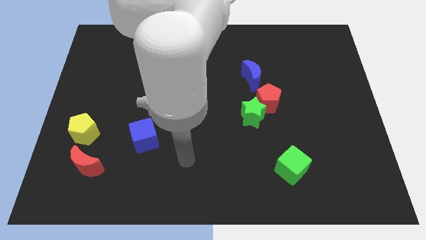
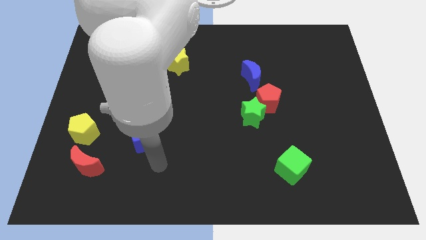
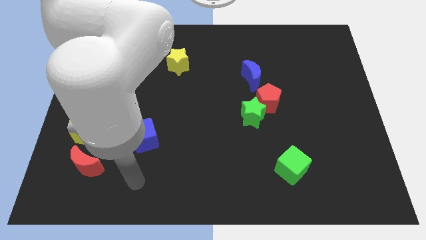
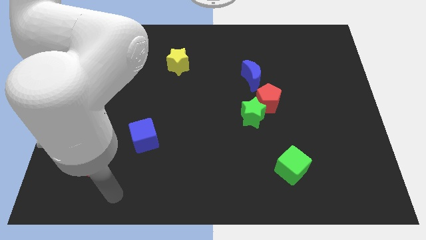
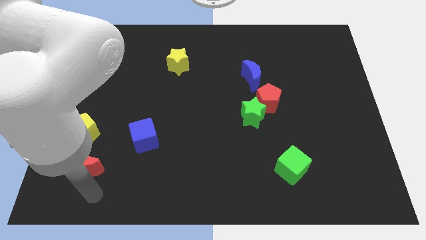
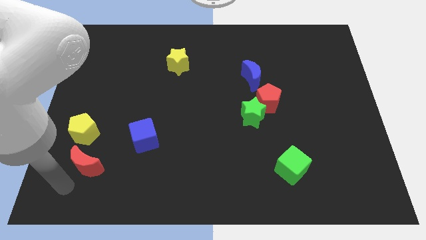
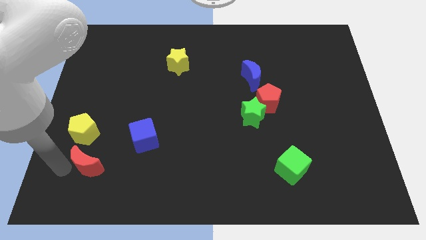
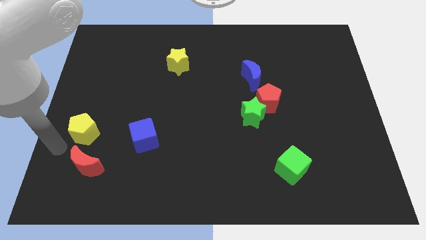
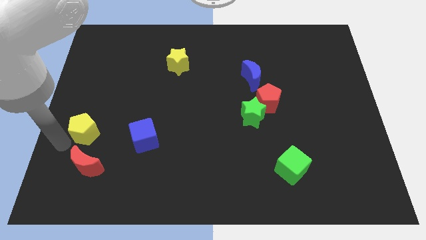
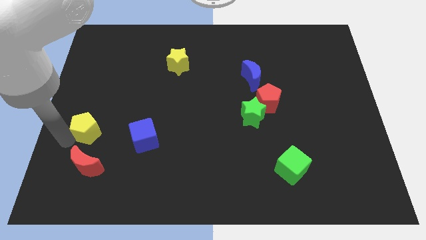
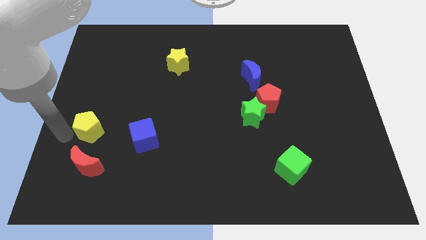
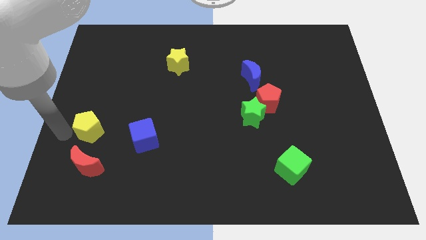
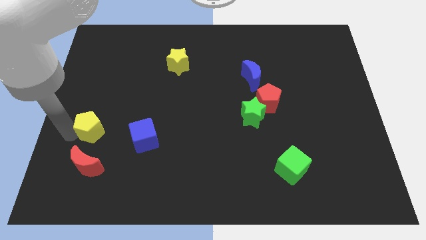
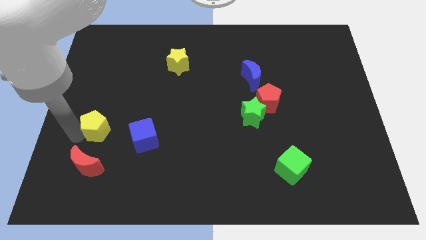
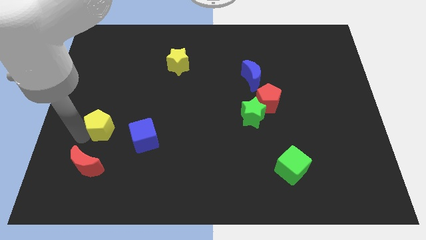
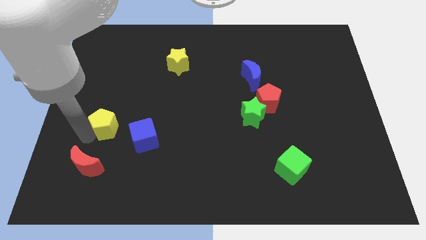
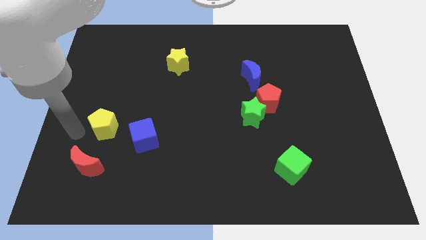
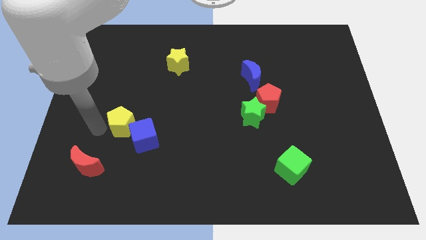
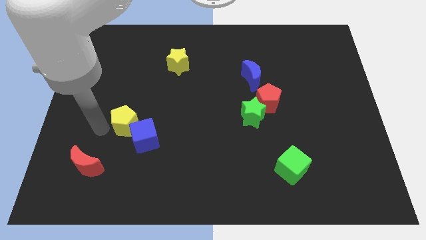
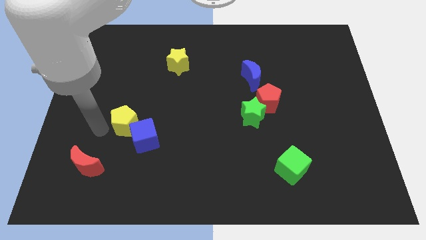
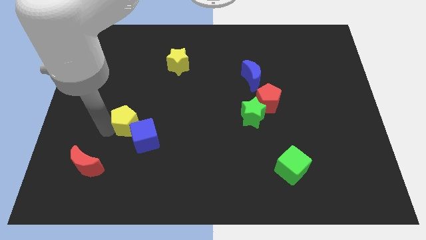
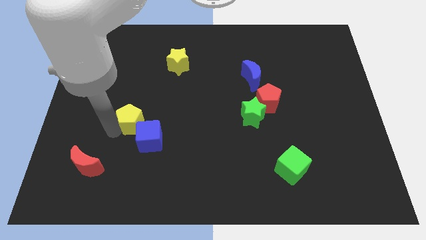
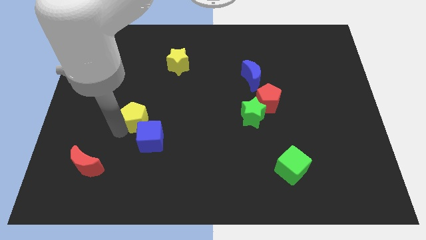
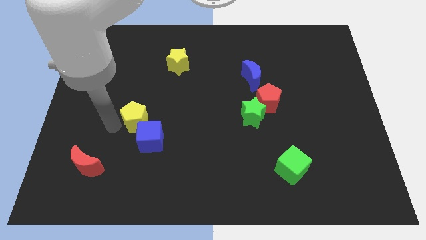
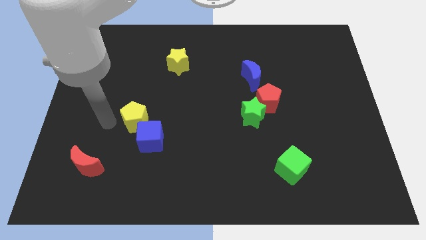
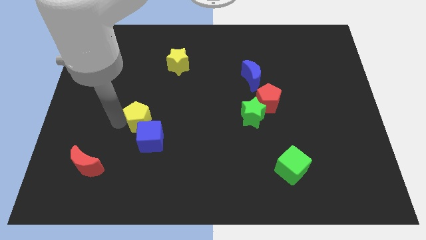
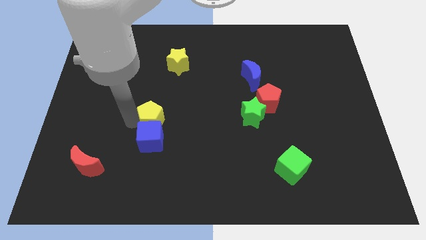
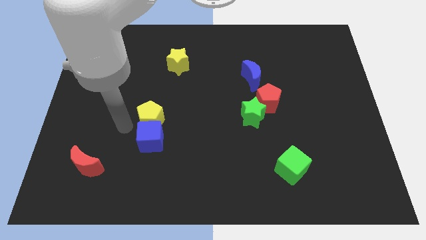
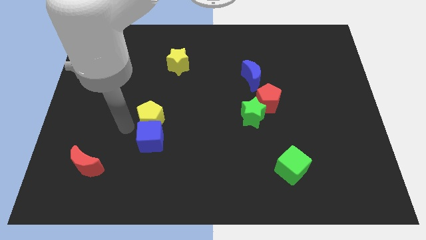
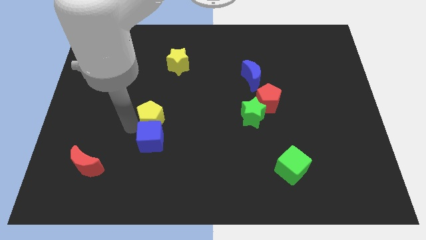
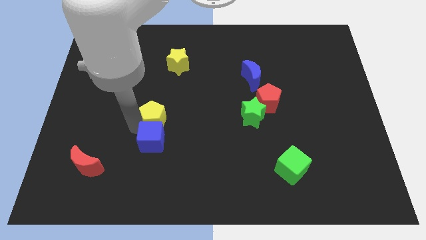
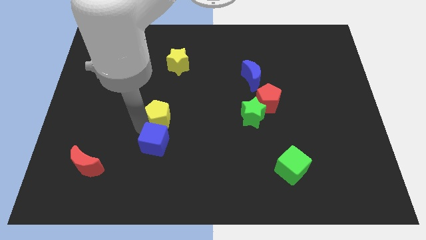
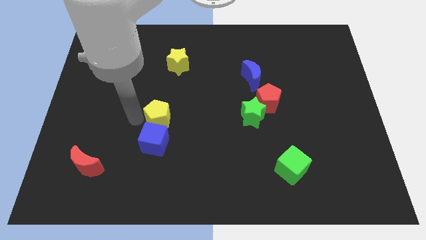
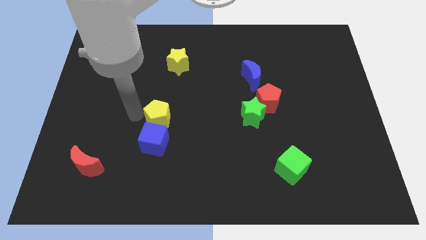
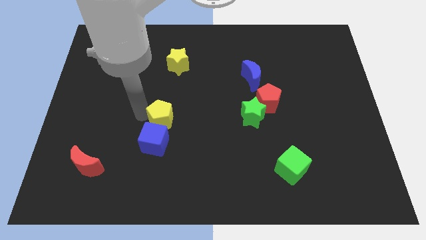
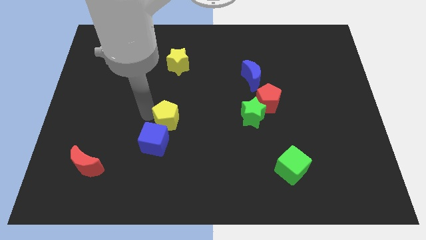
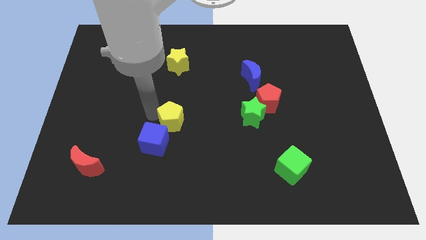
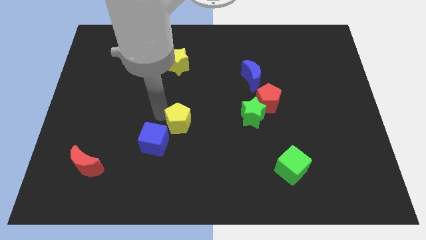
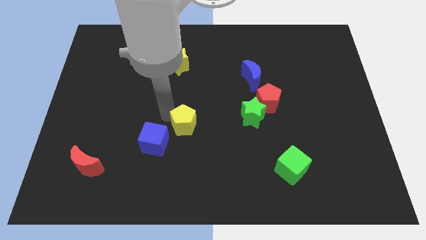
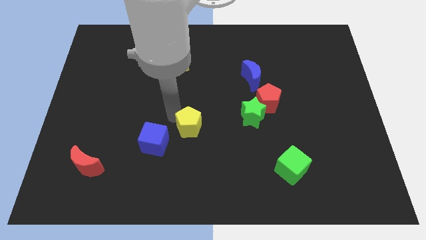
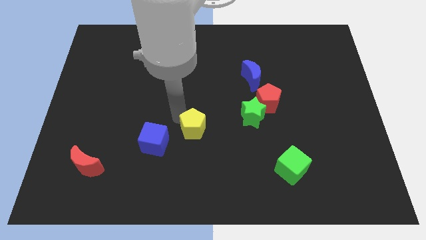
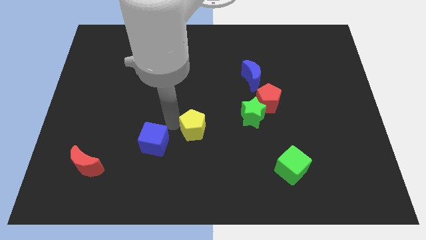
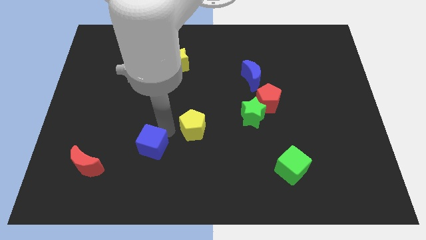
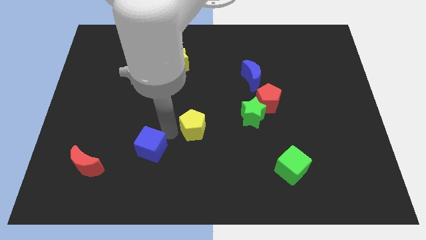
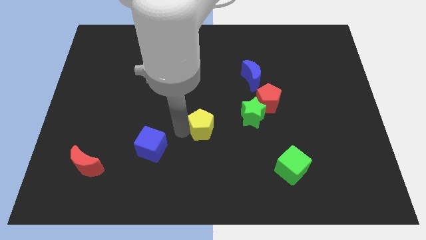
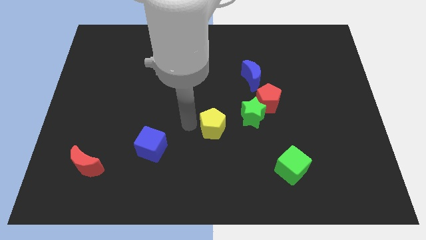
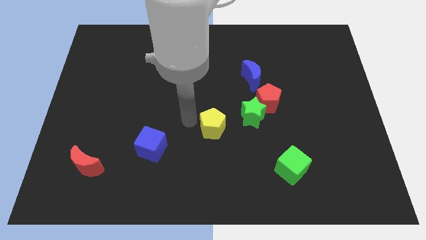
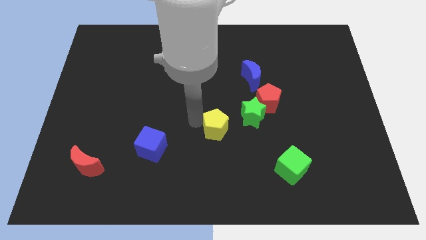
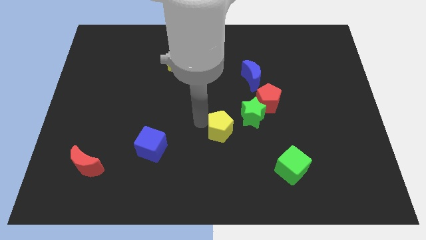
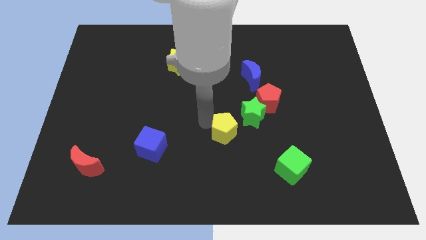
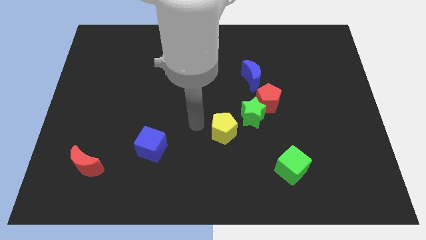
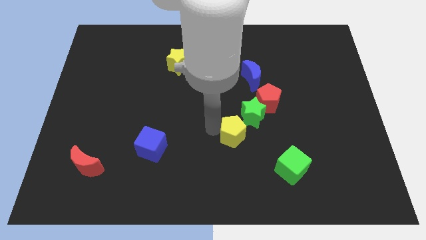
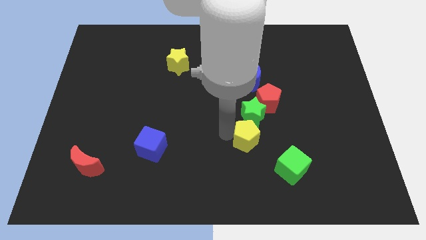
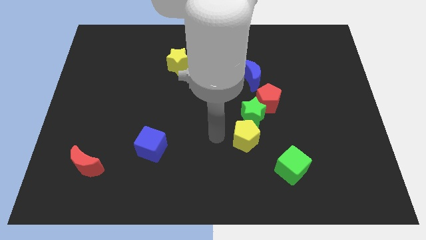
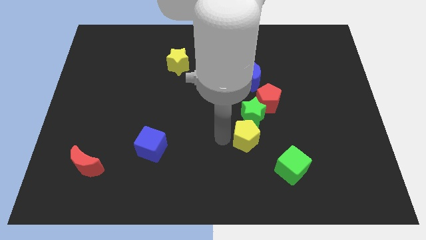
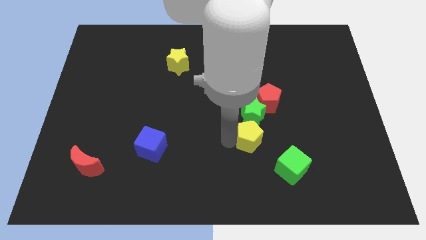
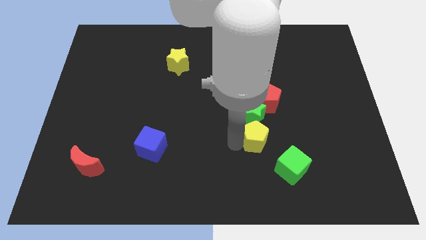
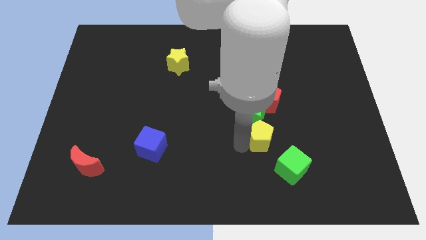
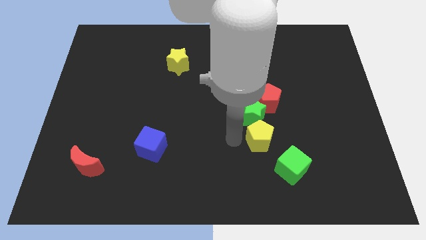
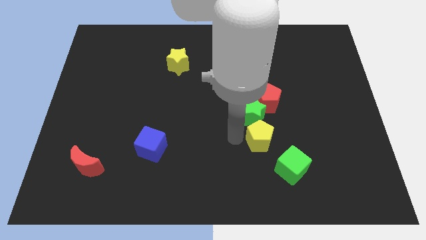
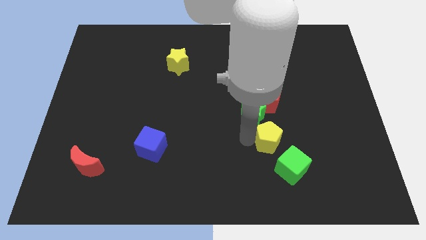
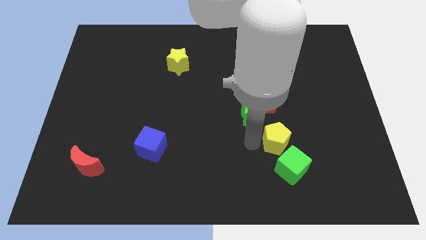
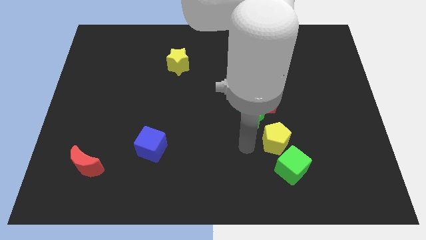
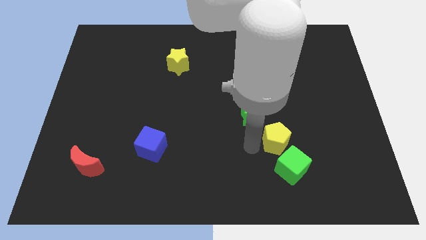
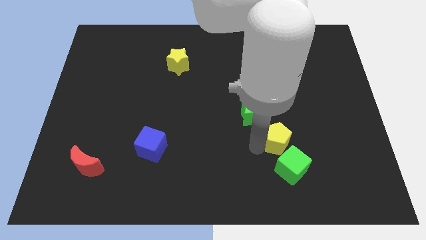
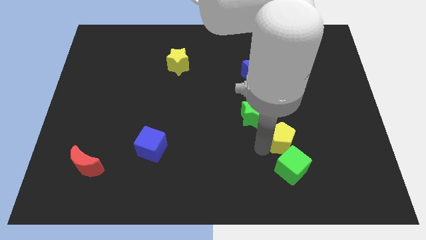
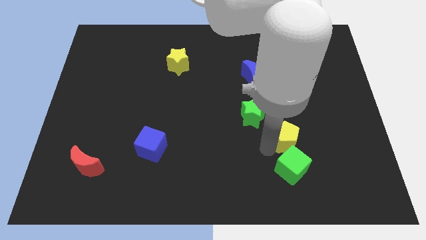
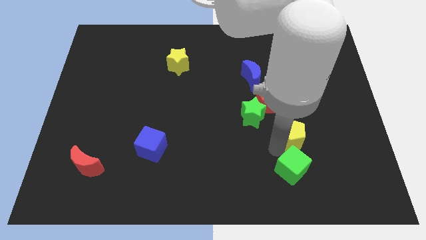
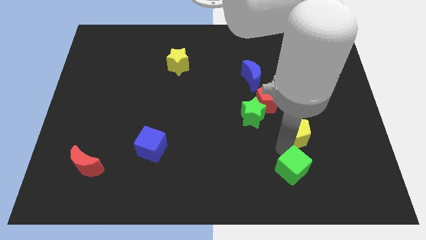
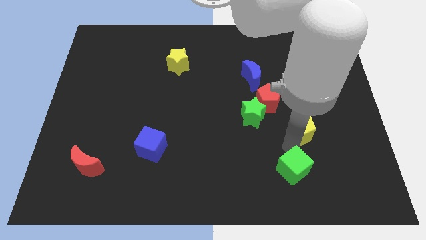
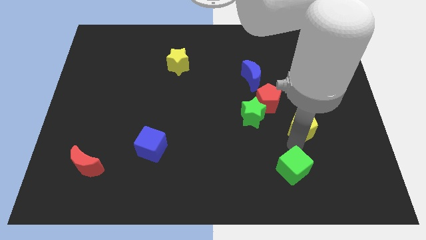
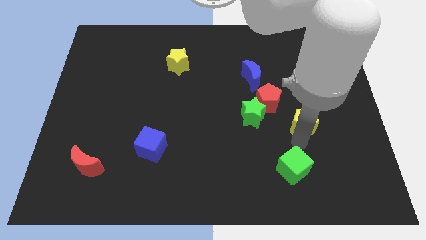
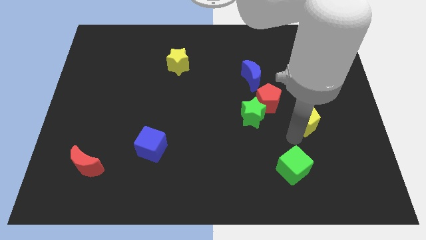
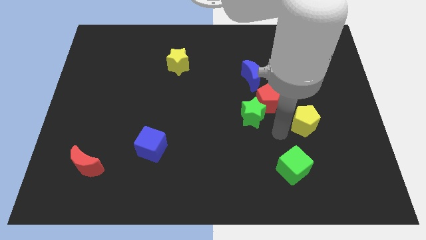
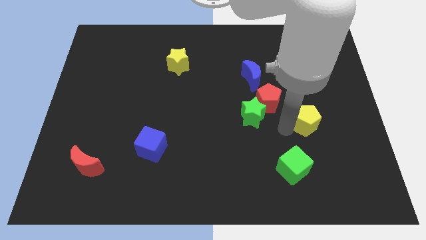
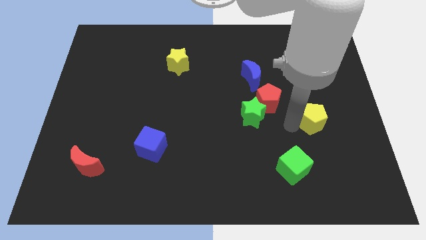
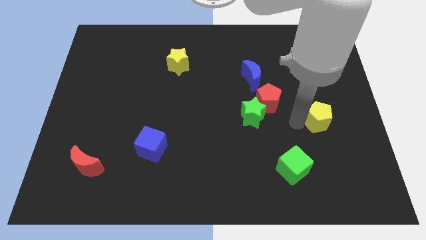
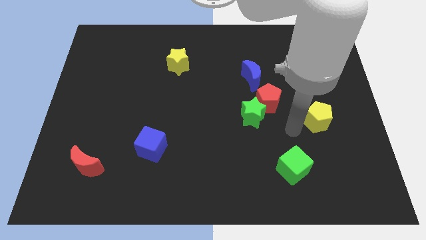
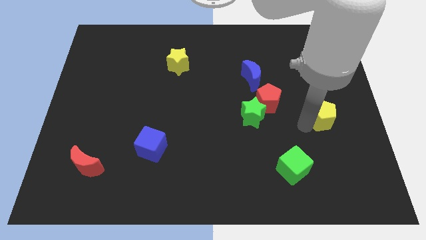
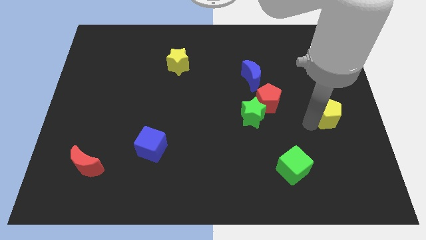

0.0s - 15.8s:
slide the yellow pentagon to the right side
